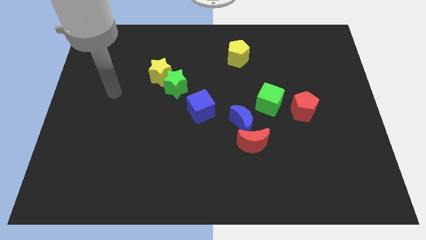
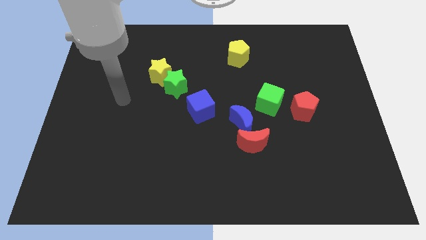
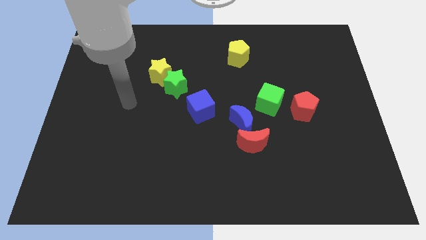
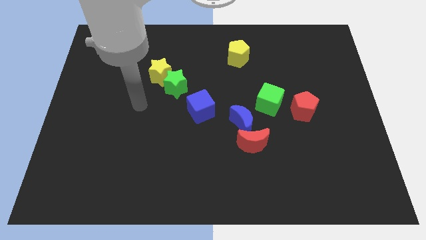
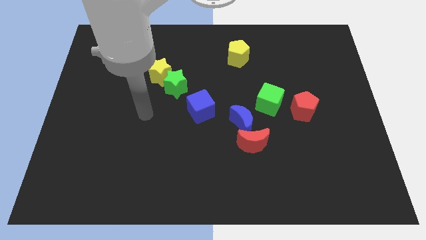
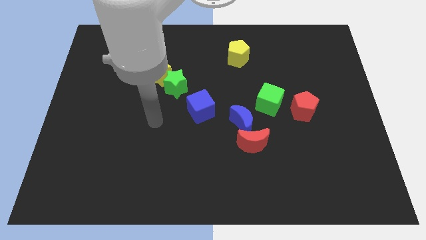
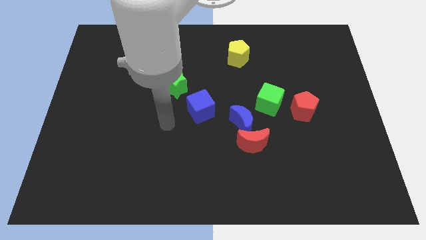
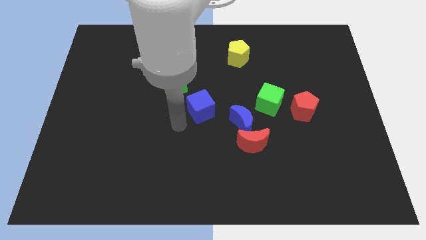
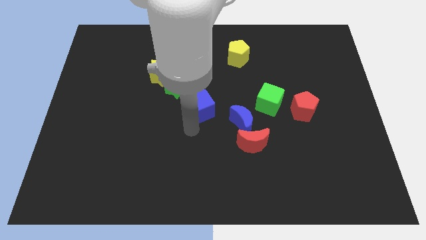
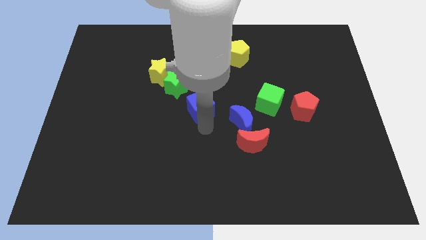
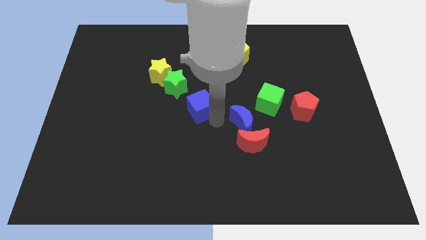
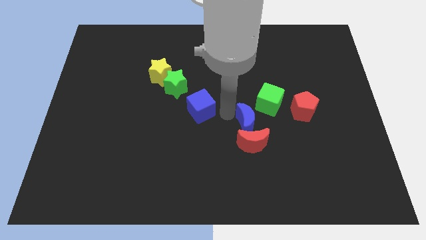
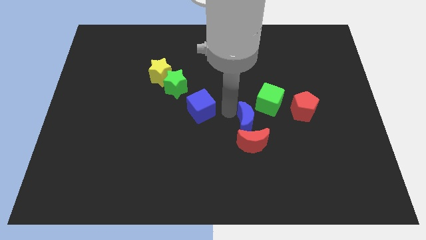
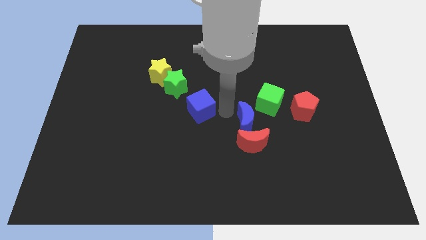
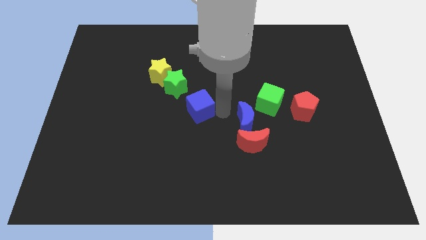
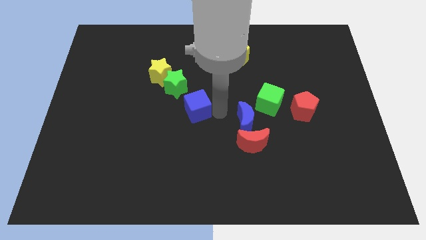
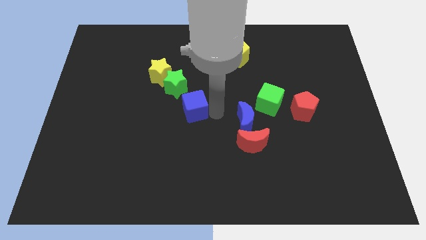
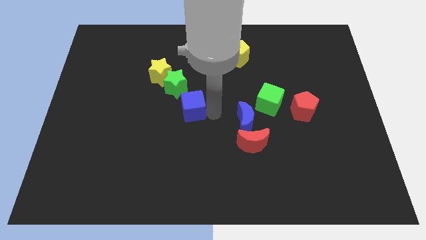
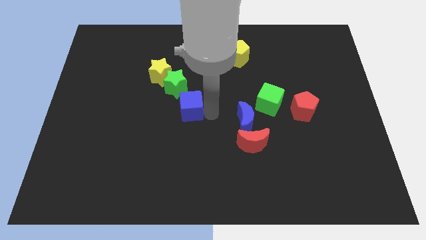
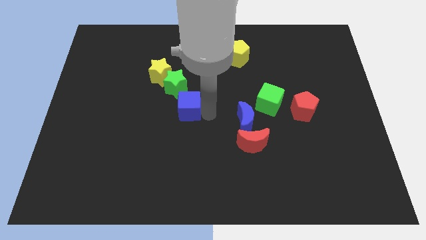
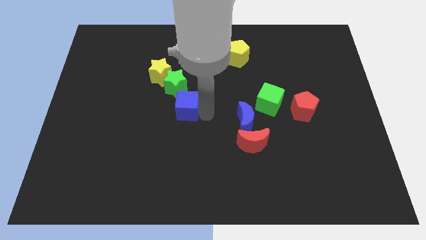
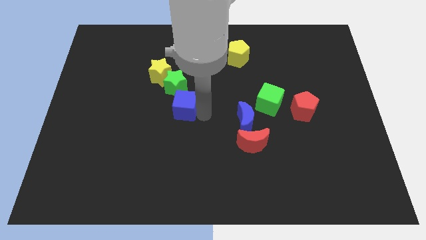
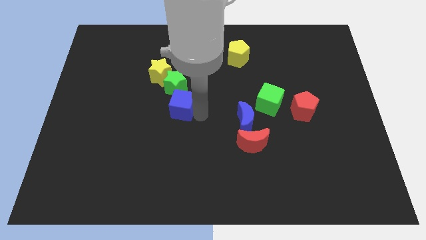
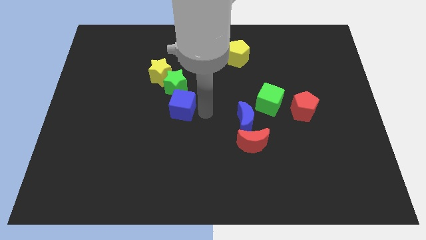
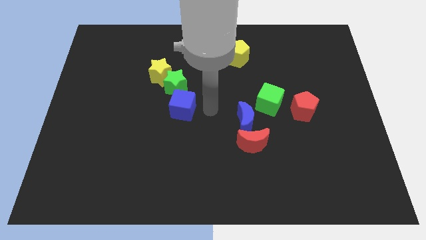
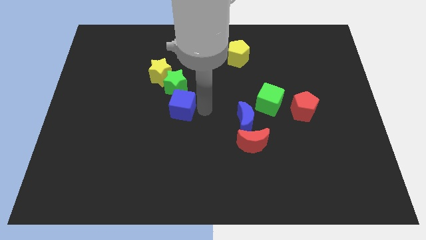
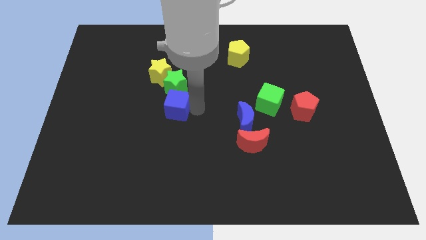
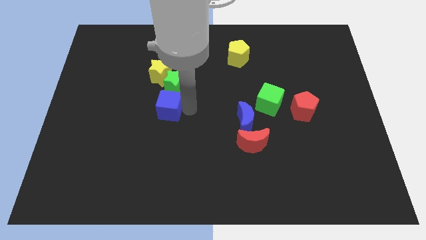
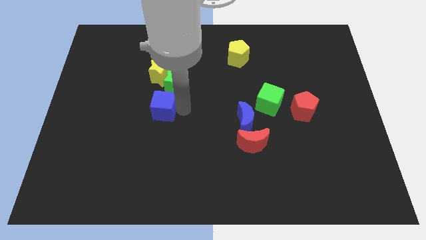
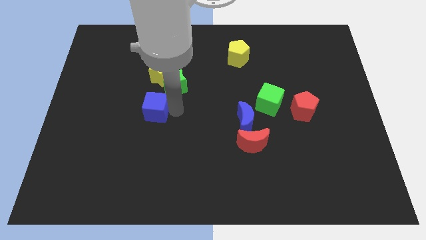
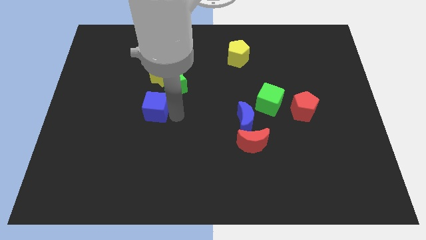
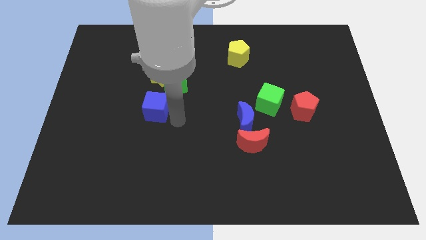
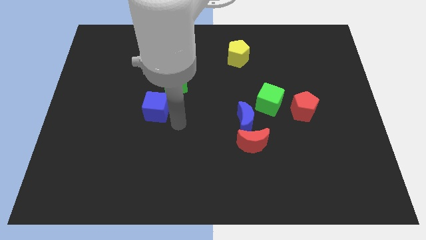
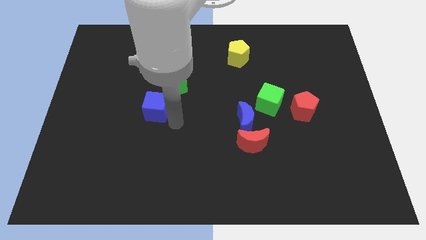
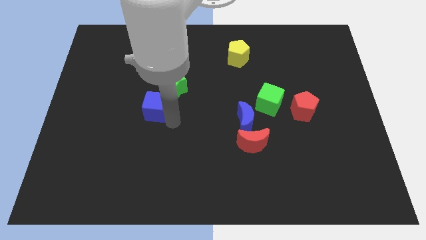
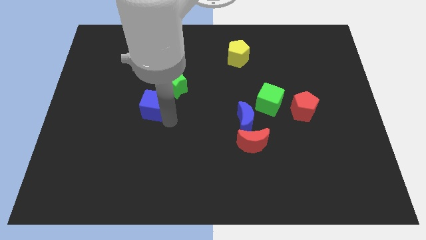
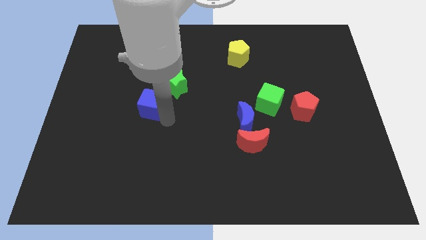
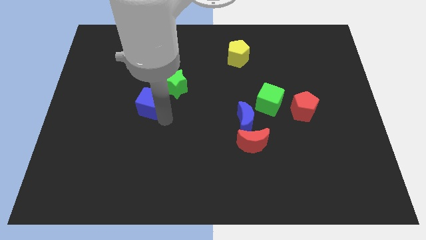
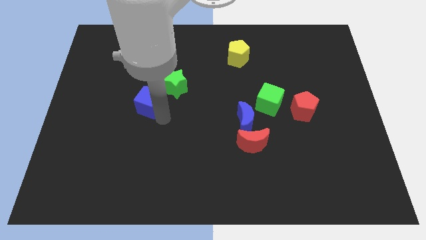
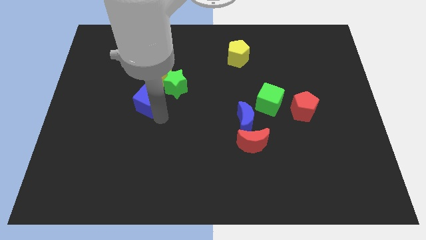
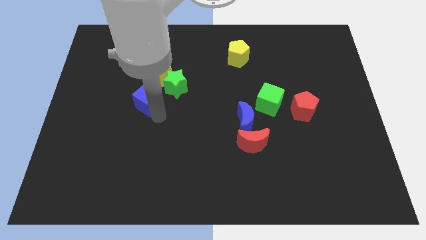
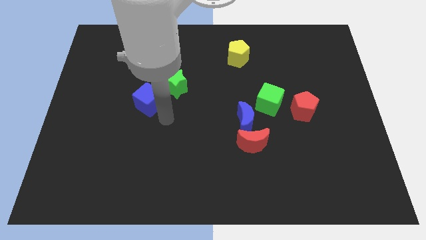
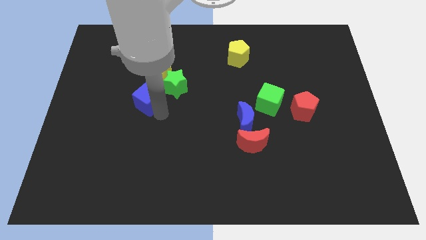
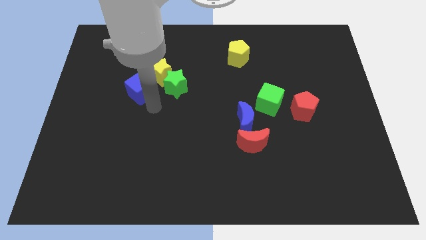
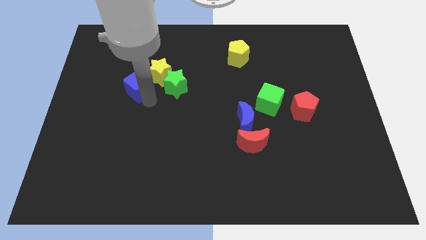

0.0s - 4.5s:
put the blue cube left of the yellow star

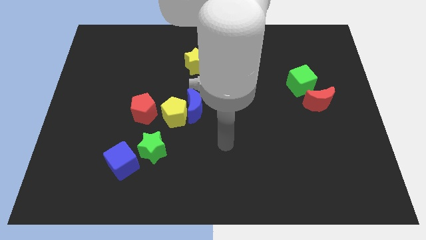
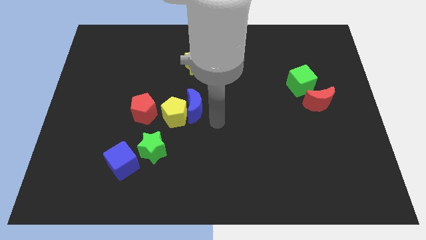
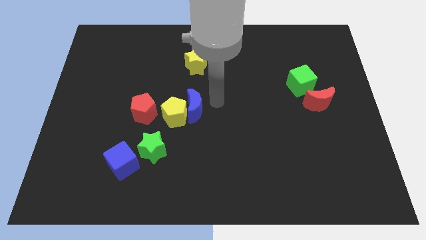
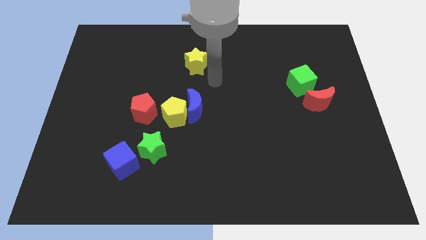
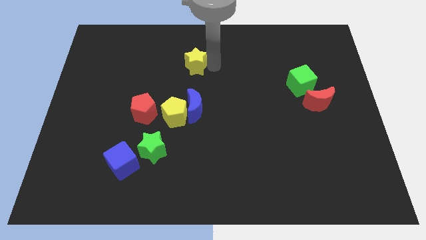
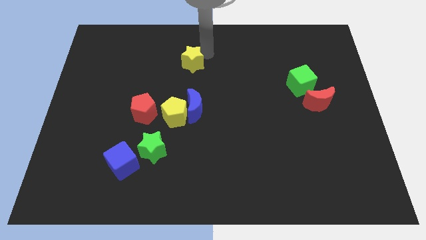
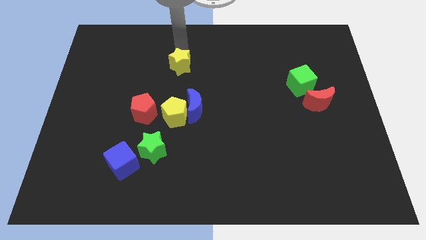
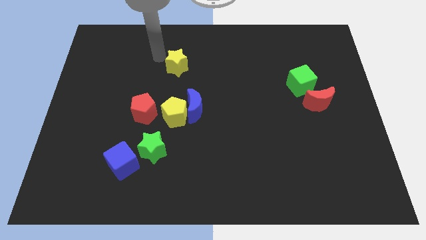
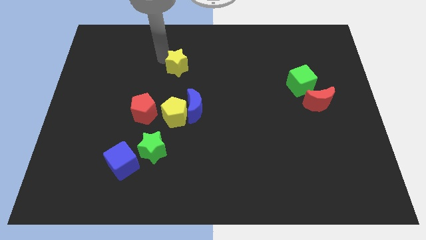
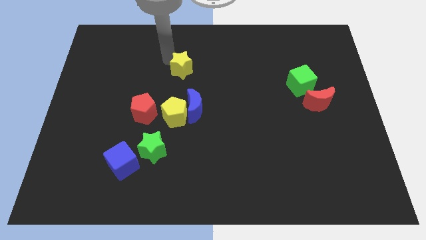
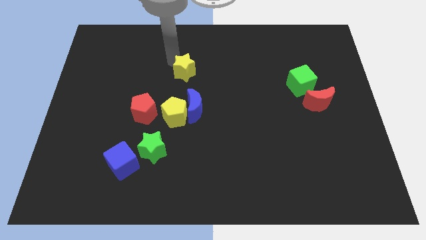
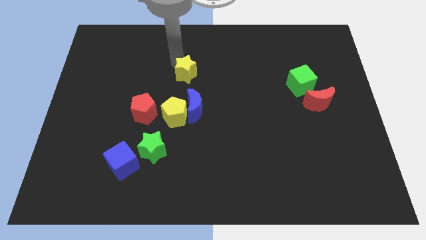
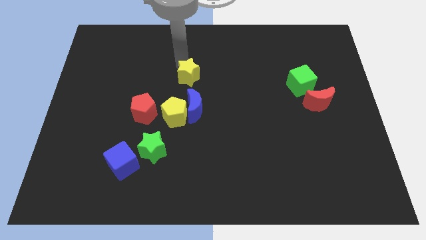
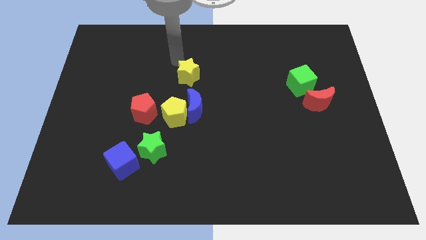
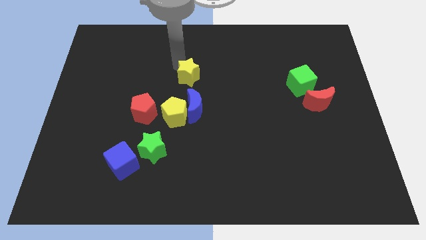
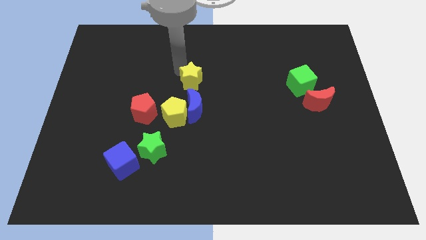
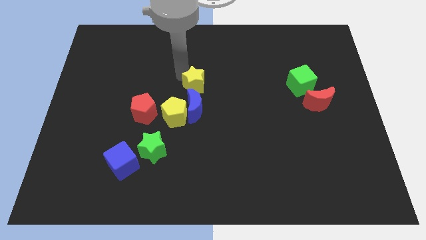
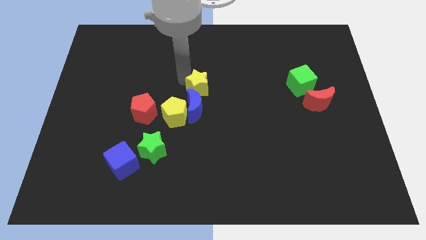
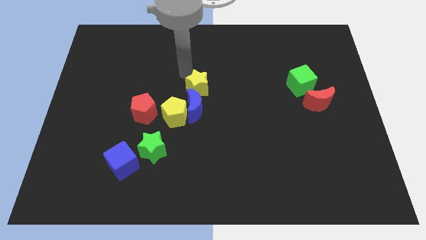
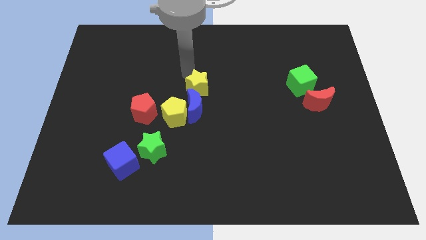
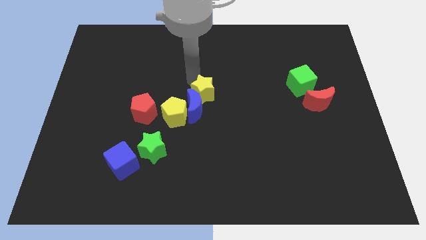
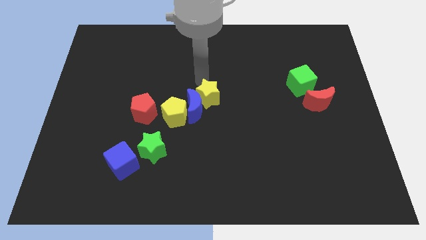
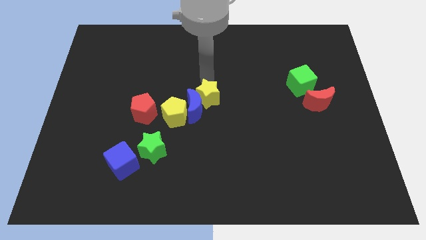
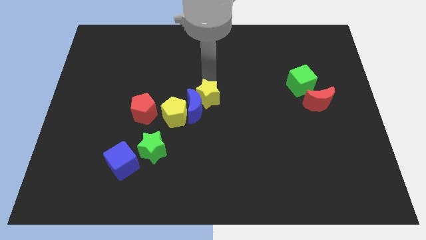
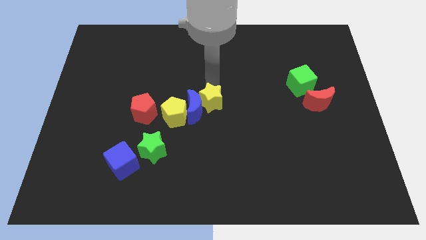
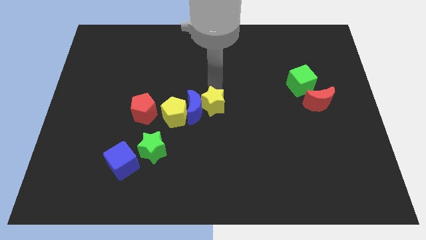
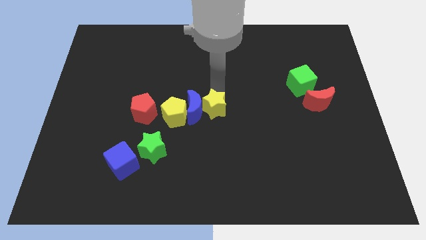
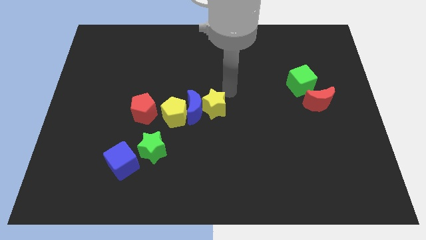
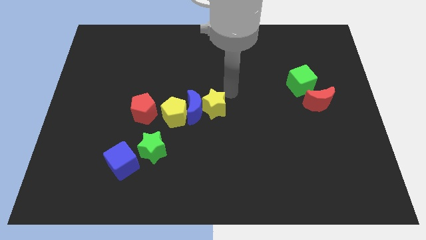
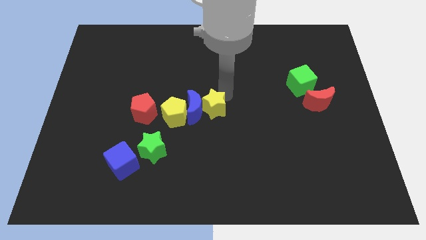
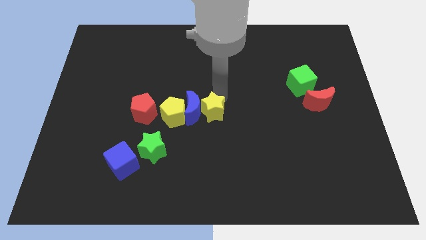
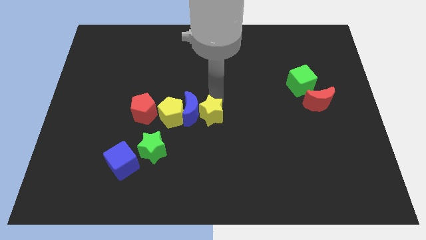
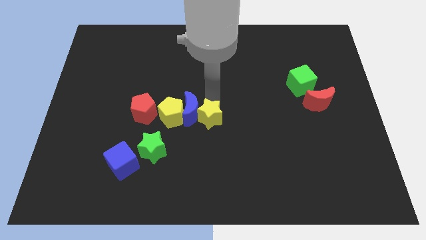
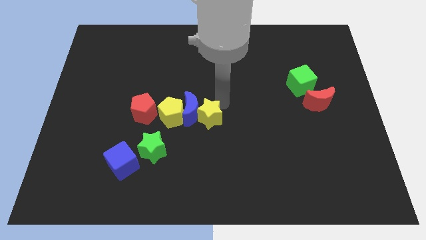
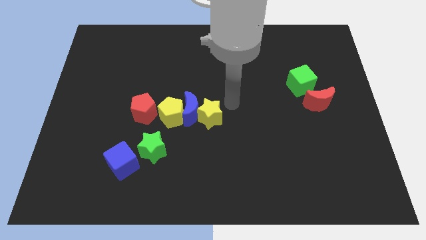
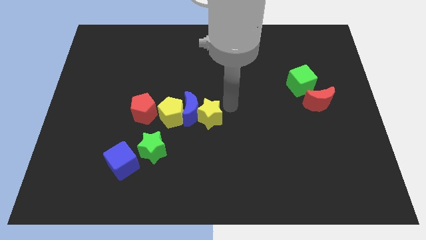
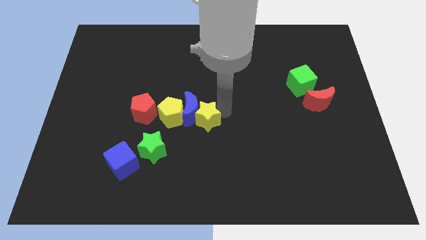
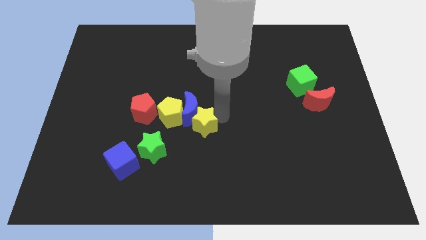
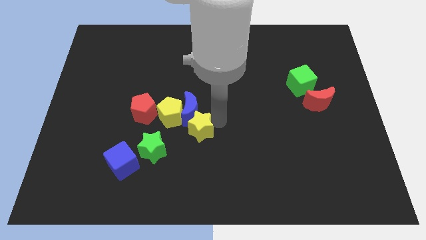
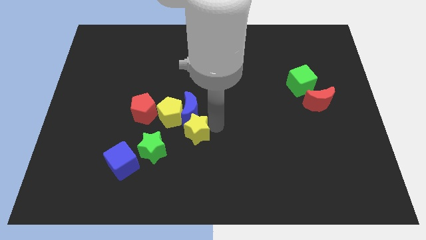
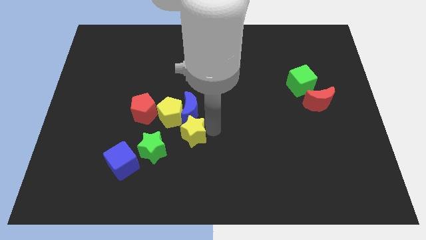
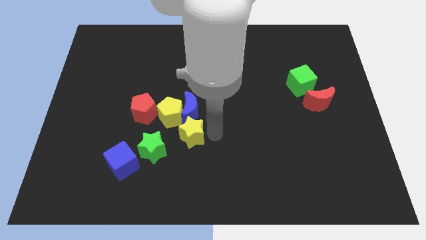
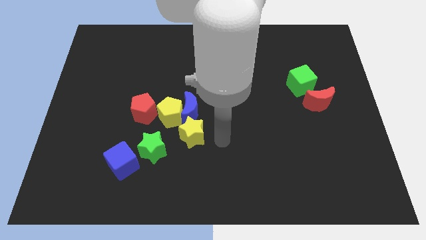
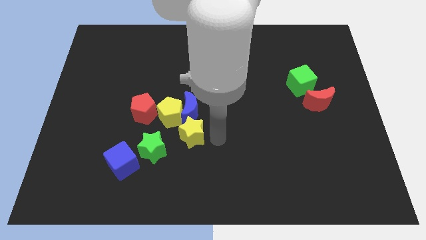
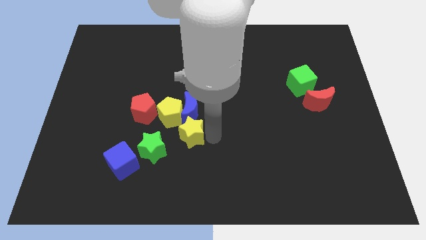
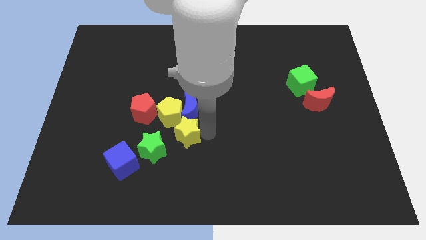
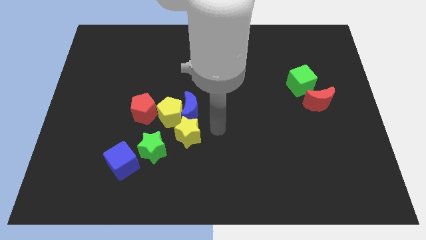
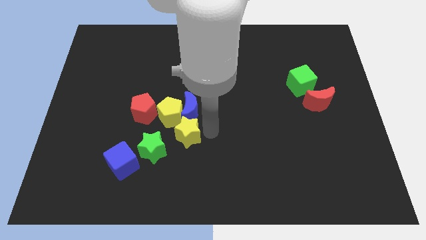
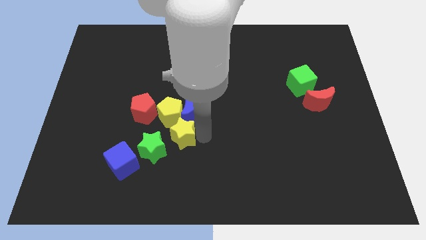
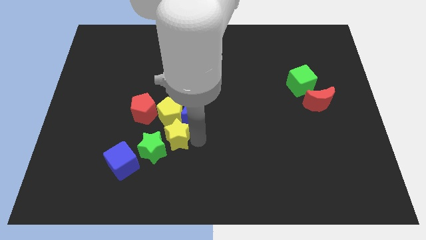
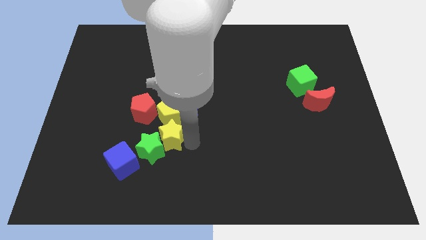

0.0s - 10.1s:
put the yellow star to the top right of the blue cube
